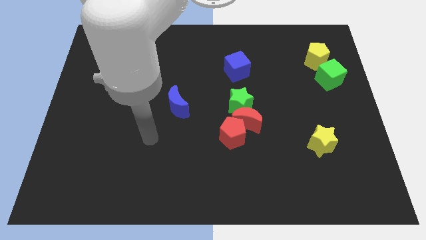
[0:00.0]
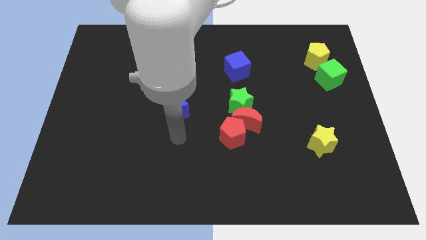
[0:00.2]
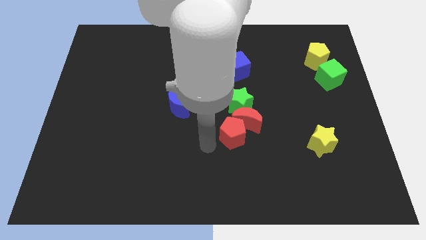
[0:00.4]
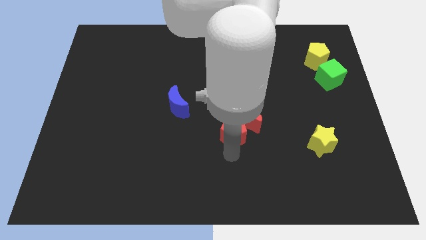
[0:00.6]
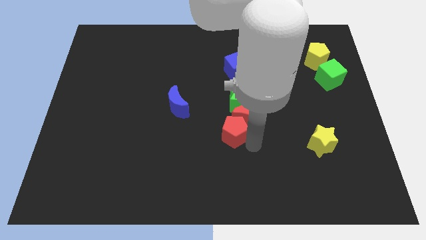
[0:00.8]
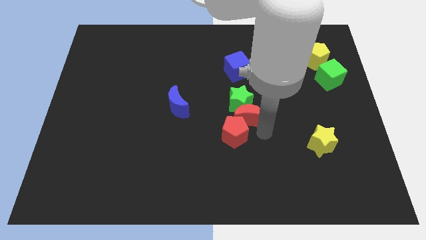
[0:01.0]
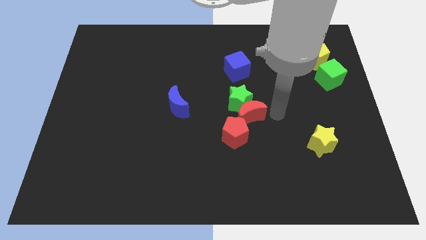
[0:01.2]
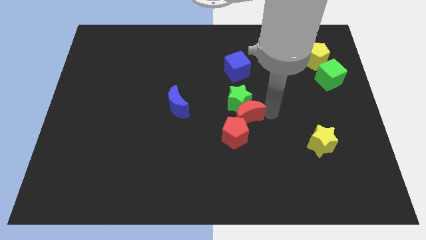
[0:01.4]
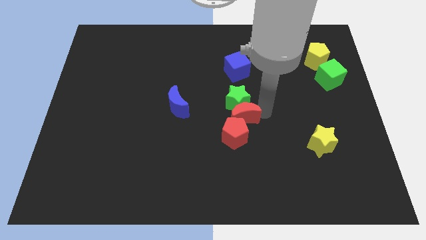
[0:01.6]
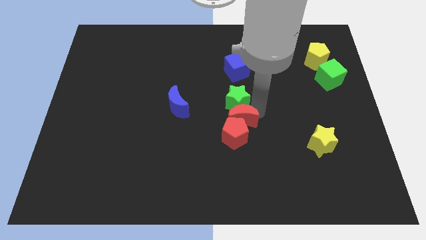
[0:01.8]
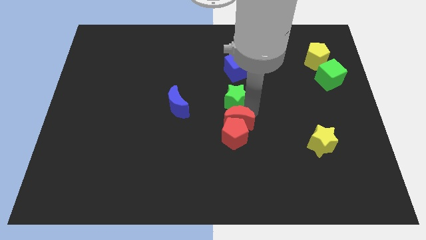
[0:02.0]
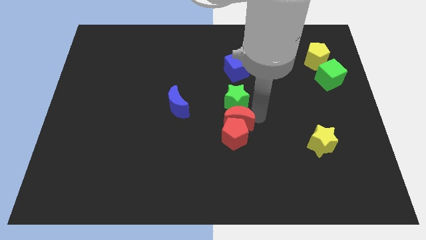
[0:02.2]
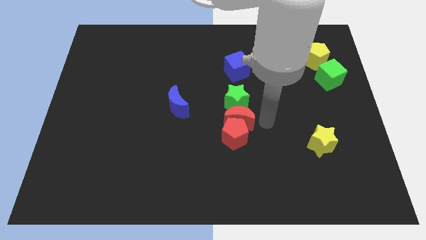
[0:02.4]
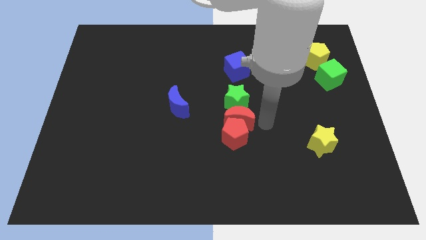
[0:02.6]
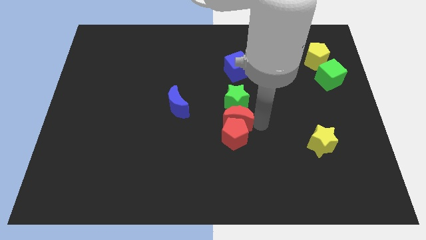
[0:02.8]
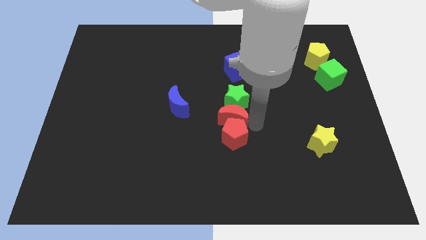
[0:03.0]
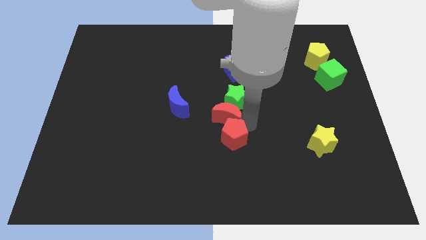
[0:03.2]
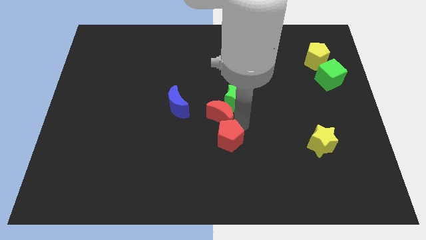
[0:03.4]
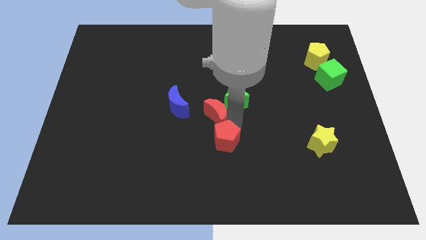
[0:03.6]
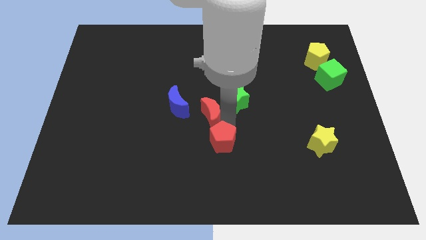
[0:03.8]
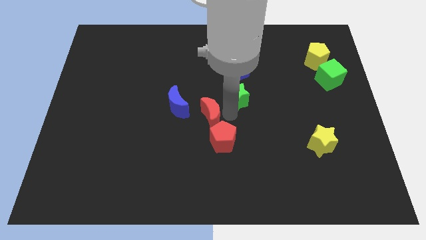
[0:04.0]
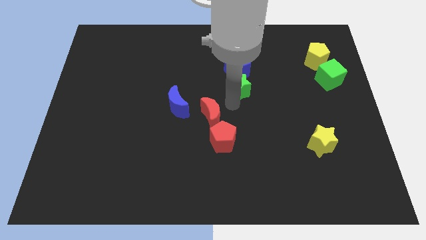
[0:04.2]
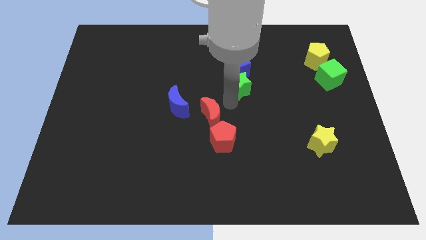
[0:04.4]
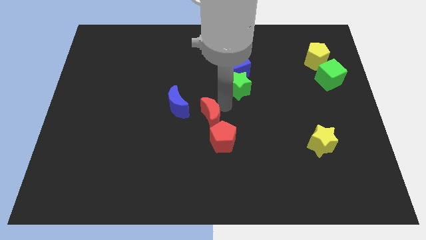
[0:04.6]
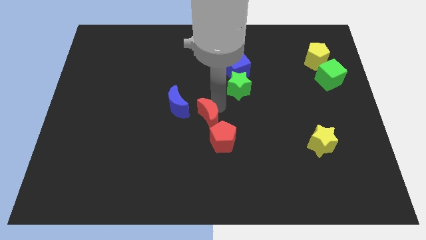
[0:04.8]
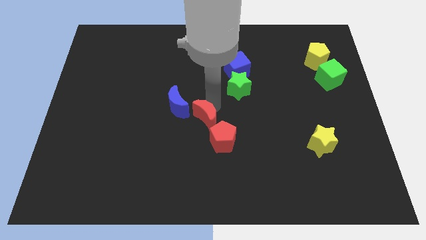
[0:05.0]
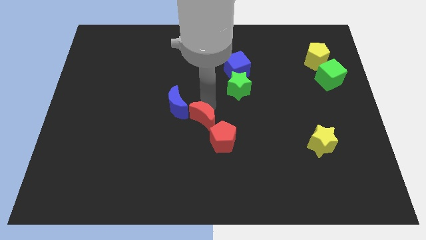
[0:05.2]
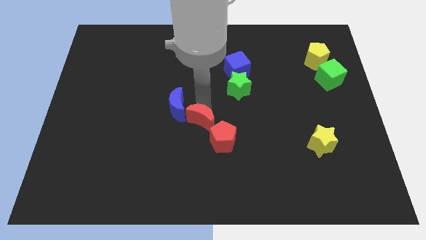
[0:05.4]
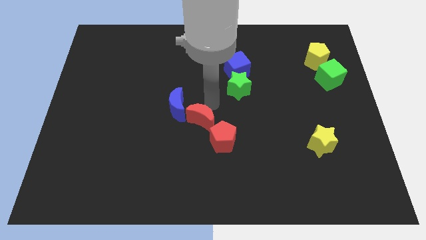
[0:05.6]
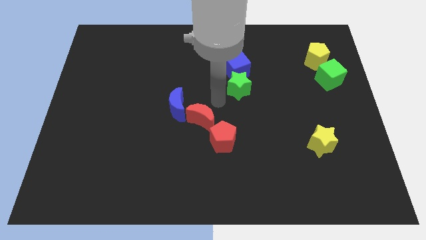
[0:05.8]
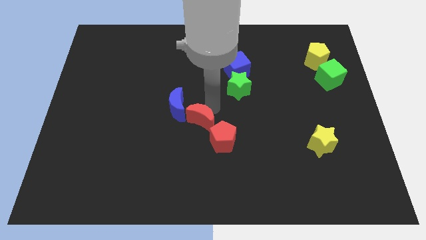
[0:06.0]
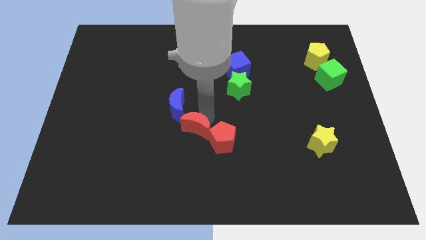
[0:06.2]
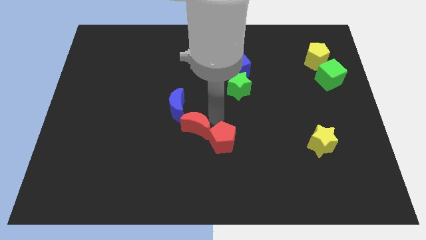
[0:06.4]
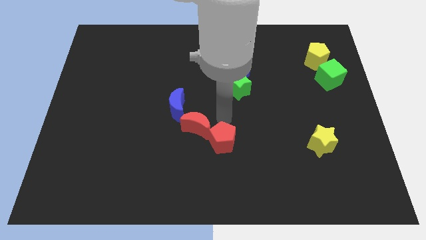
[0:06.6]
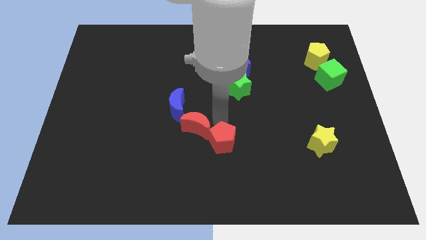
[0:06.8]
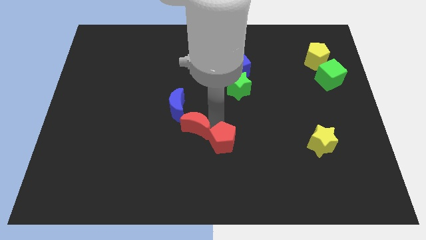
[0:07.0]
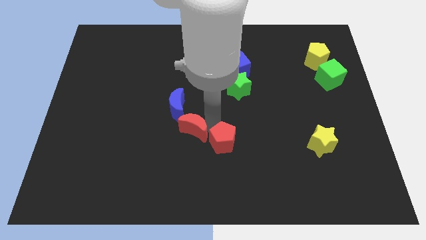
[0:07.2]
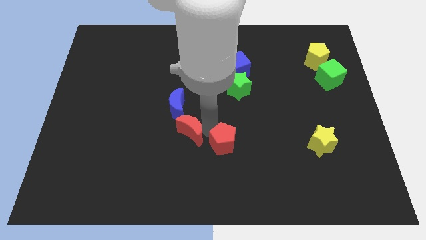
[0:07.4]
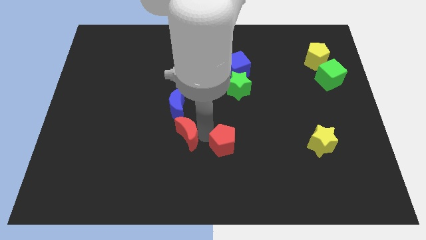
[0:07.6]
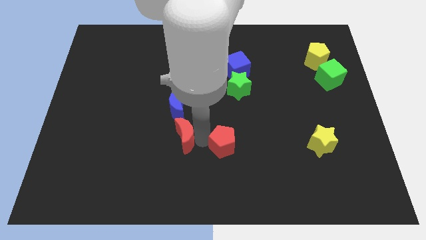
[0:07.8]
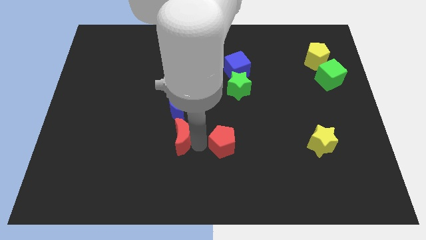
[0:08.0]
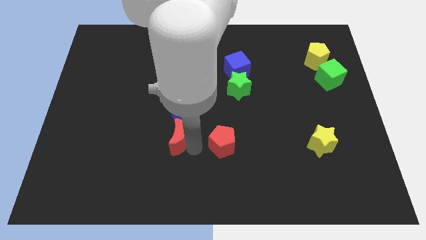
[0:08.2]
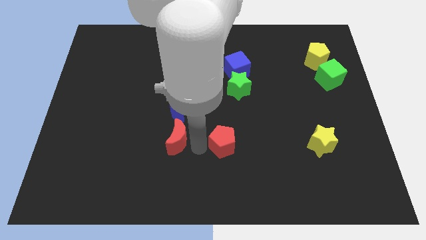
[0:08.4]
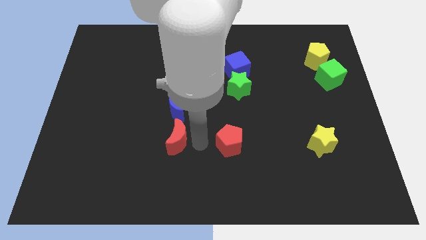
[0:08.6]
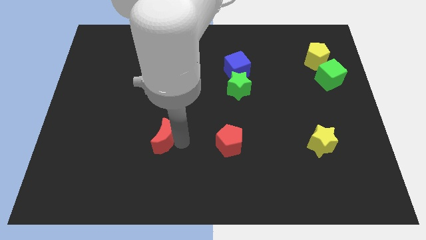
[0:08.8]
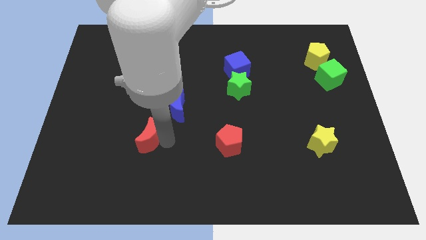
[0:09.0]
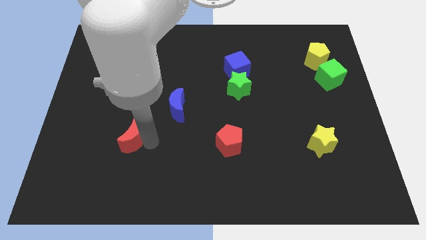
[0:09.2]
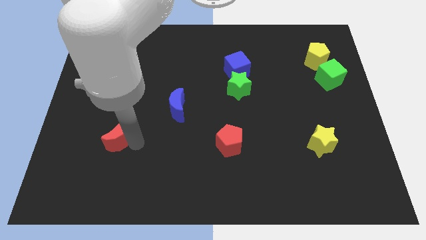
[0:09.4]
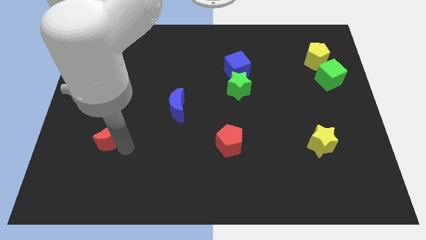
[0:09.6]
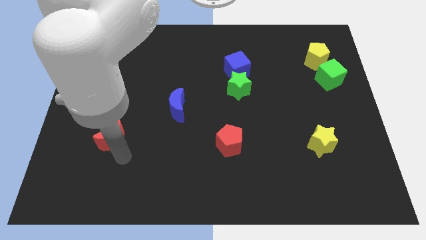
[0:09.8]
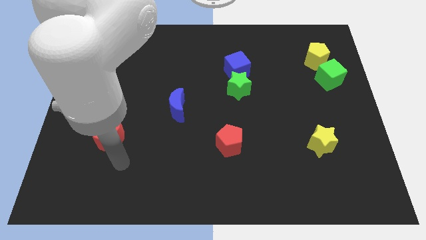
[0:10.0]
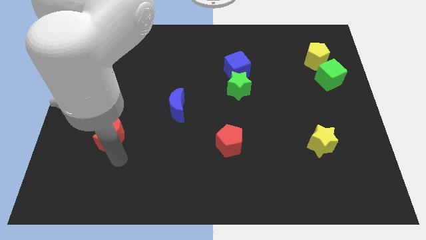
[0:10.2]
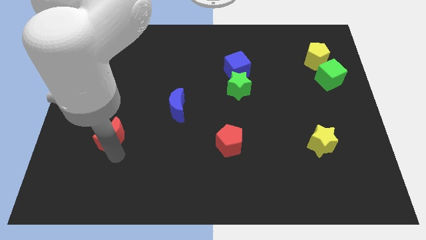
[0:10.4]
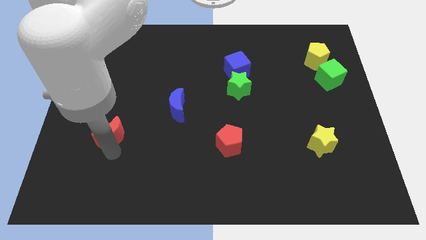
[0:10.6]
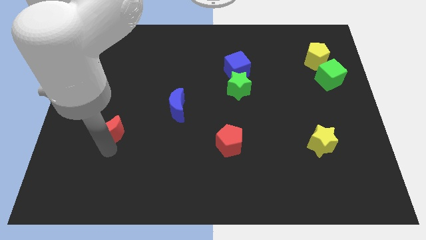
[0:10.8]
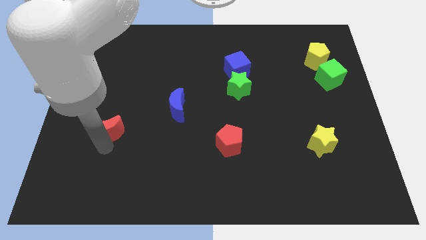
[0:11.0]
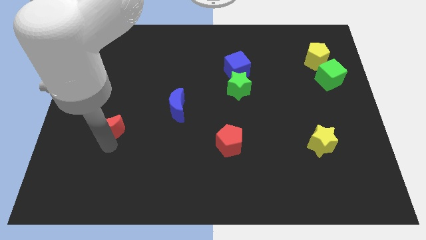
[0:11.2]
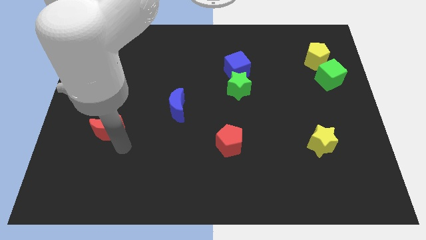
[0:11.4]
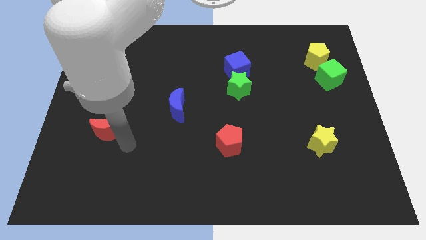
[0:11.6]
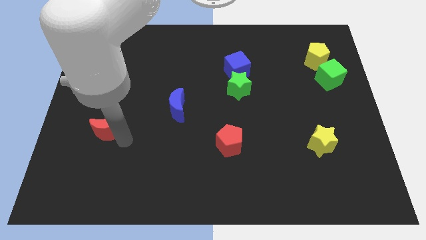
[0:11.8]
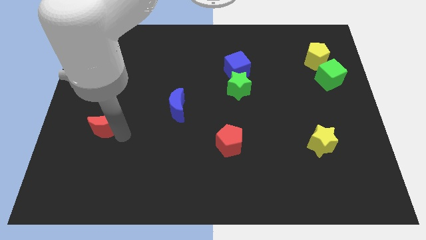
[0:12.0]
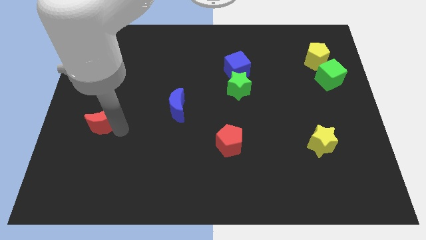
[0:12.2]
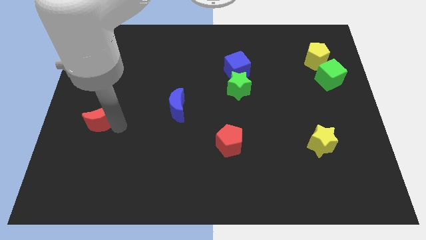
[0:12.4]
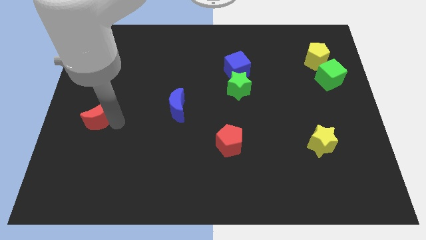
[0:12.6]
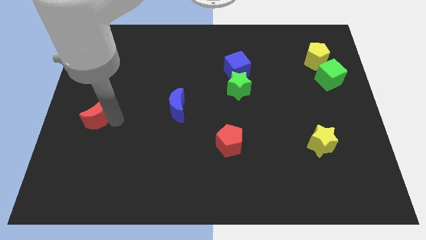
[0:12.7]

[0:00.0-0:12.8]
push the red moon to the center left
